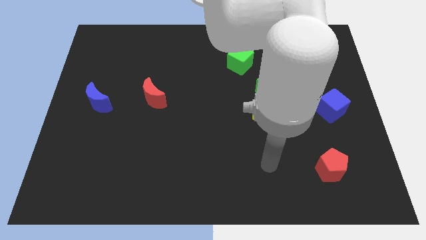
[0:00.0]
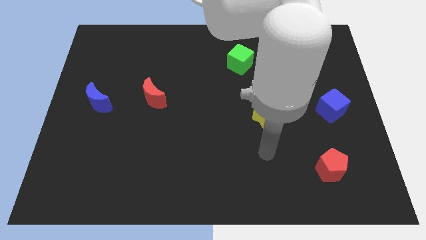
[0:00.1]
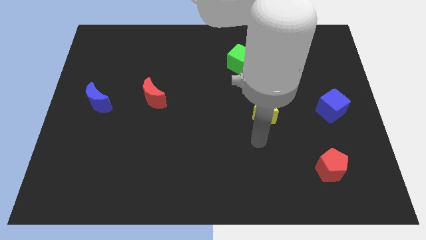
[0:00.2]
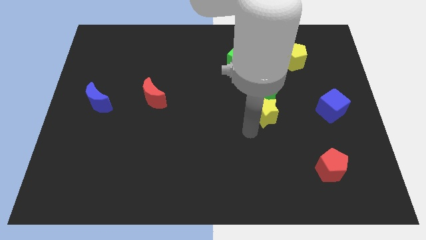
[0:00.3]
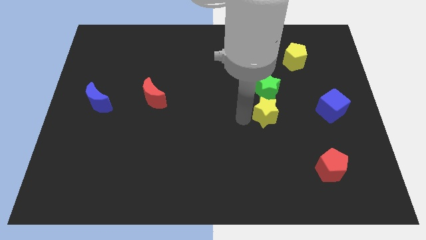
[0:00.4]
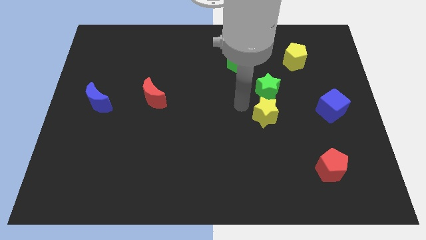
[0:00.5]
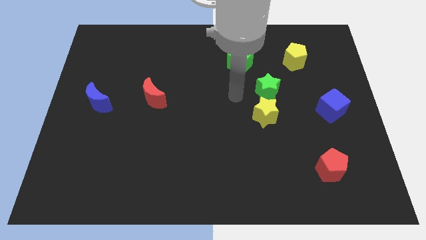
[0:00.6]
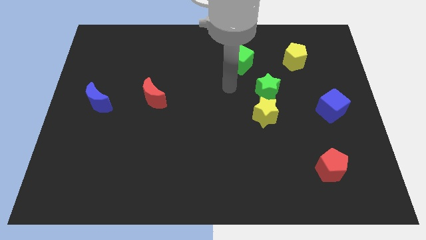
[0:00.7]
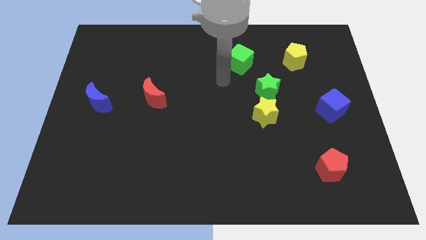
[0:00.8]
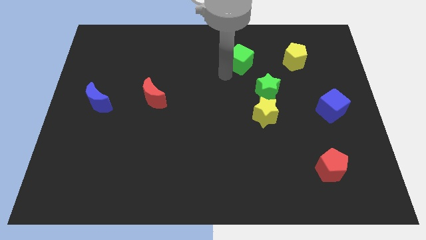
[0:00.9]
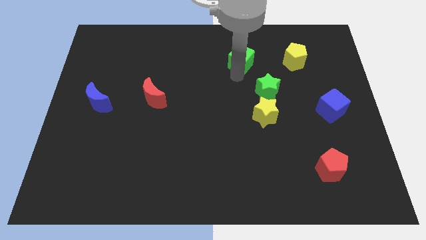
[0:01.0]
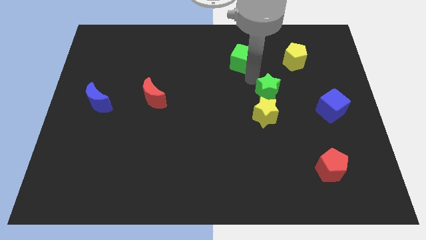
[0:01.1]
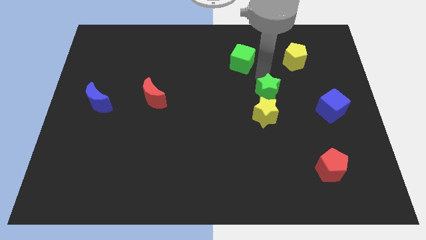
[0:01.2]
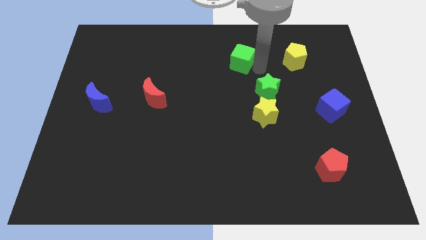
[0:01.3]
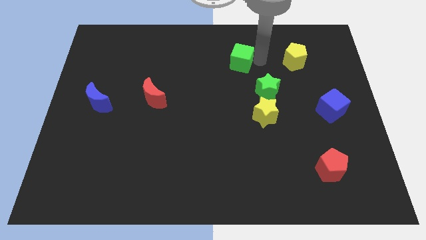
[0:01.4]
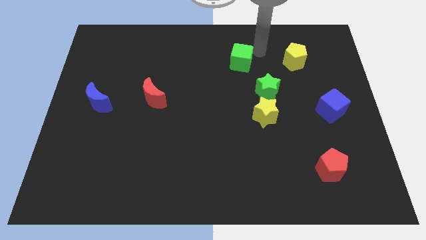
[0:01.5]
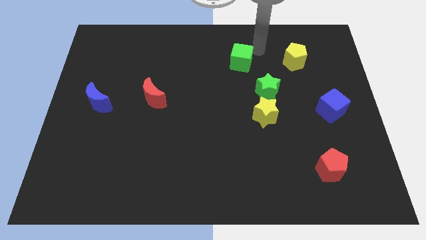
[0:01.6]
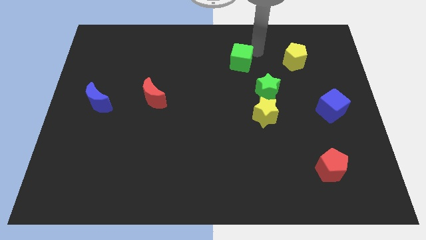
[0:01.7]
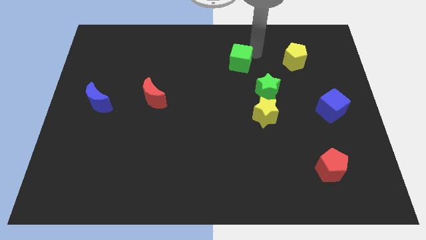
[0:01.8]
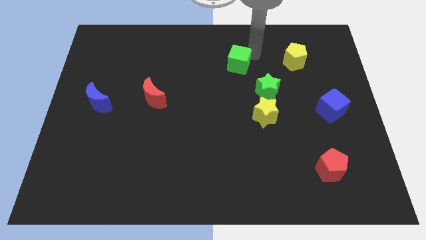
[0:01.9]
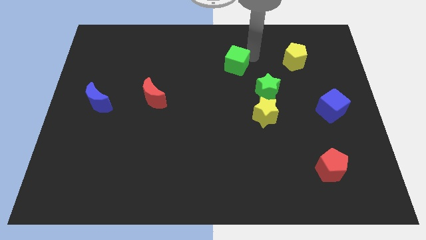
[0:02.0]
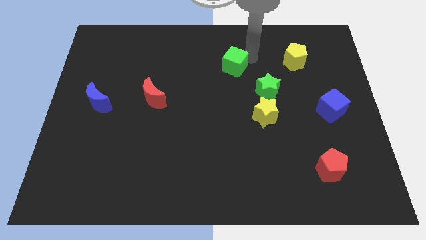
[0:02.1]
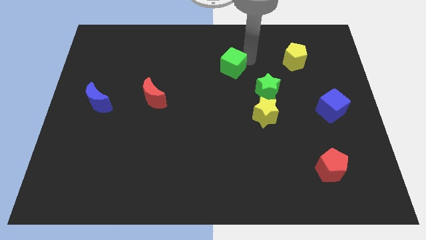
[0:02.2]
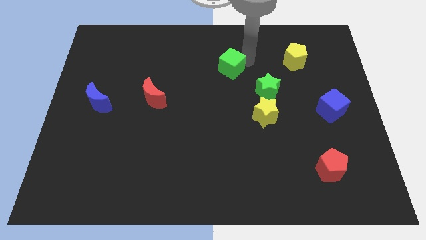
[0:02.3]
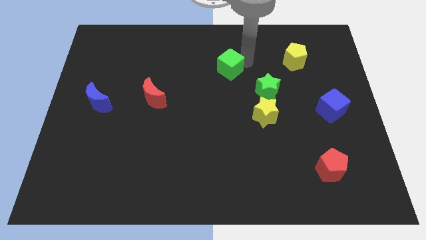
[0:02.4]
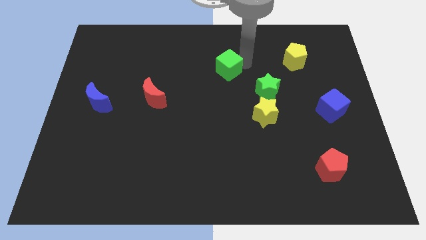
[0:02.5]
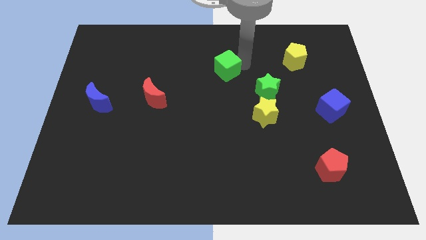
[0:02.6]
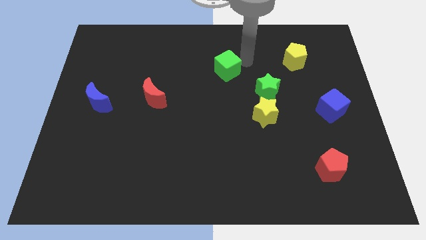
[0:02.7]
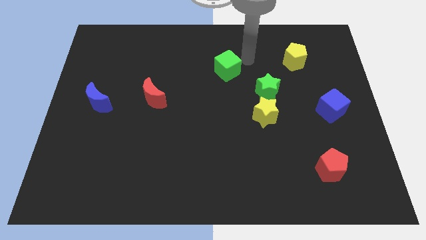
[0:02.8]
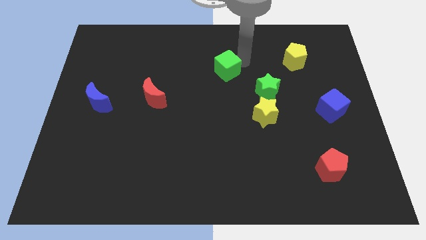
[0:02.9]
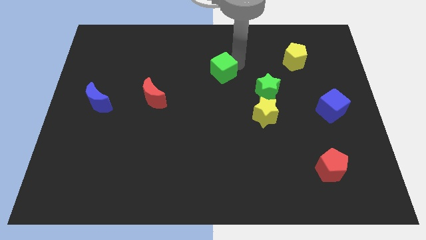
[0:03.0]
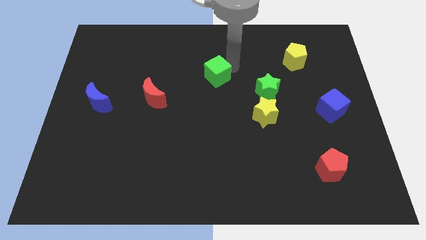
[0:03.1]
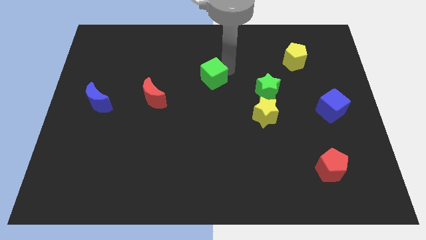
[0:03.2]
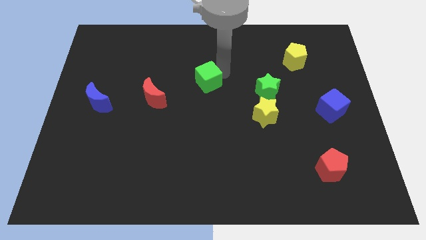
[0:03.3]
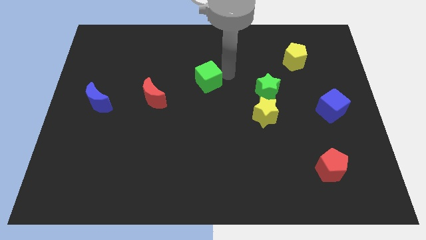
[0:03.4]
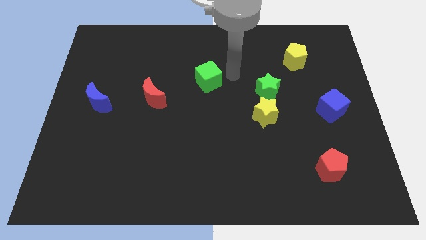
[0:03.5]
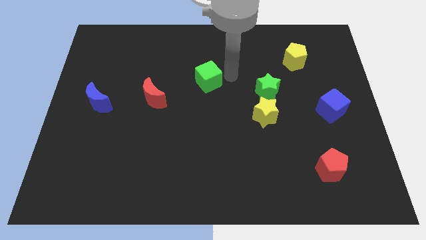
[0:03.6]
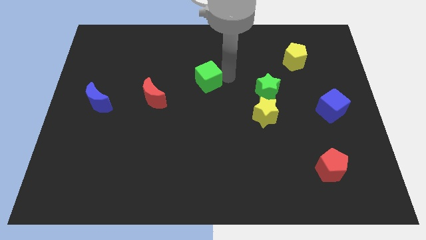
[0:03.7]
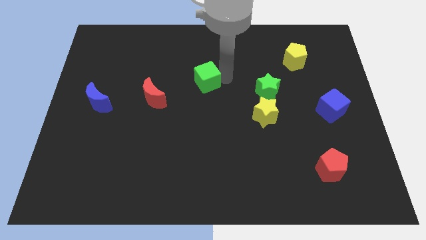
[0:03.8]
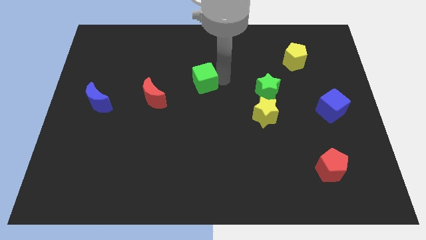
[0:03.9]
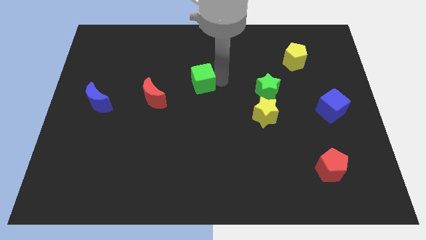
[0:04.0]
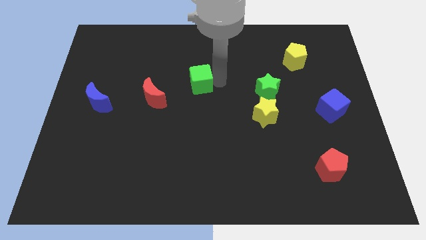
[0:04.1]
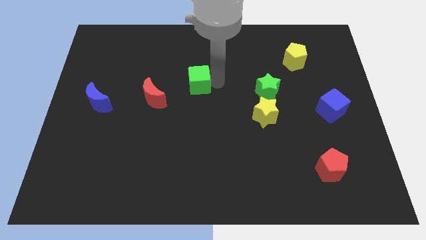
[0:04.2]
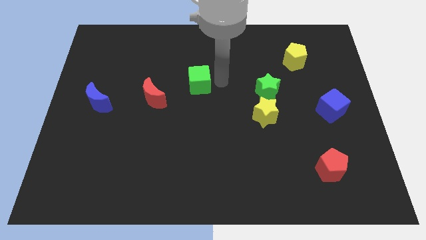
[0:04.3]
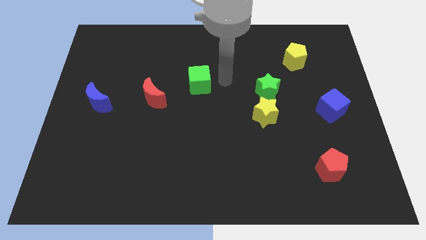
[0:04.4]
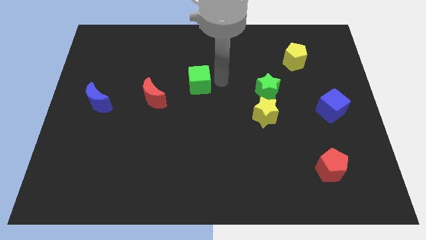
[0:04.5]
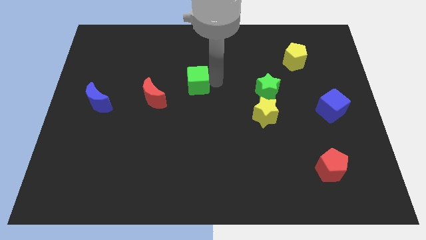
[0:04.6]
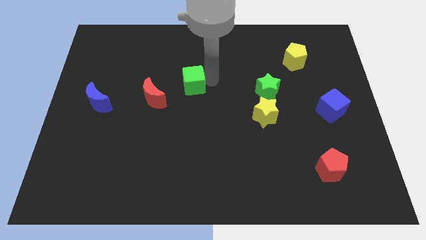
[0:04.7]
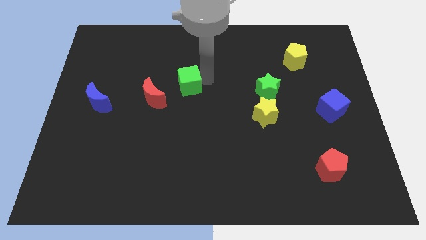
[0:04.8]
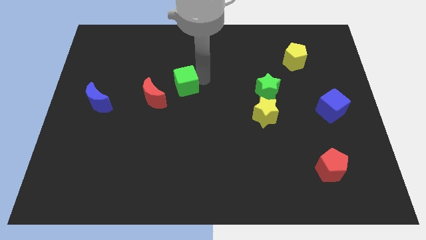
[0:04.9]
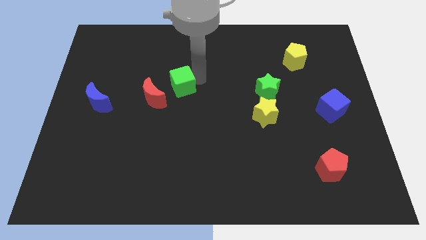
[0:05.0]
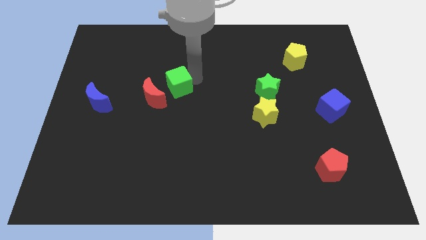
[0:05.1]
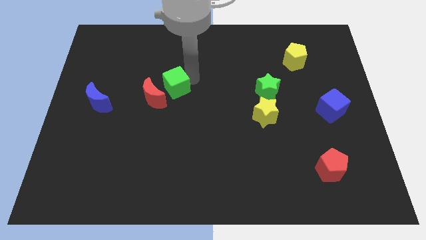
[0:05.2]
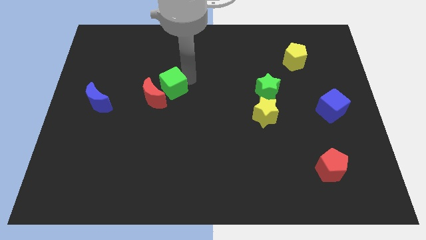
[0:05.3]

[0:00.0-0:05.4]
move the green cube close to the red moon

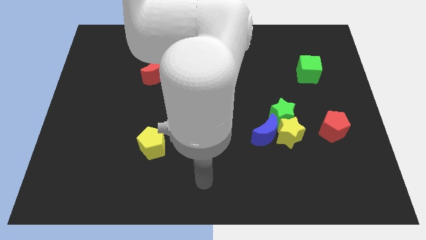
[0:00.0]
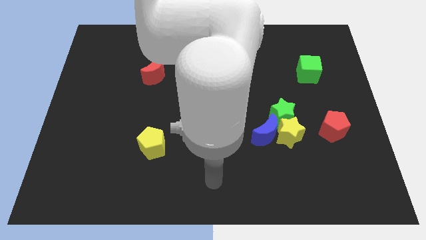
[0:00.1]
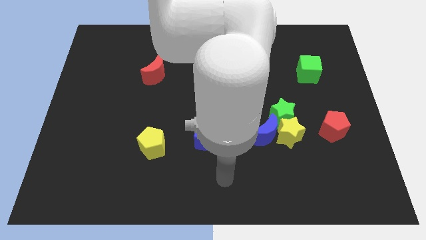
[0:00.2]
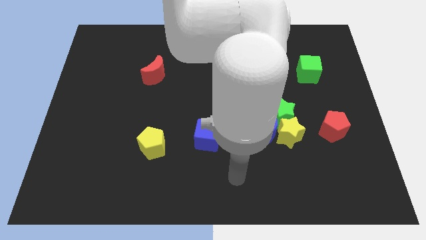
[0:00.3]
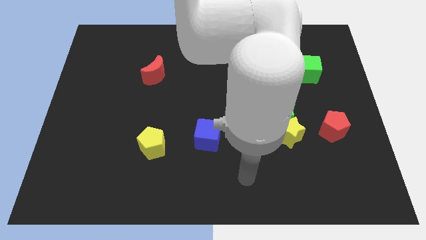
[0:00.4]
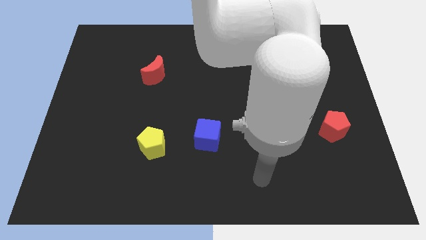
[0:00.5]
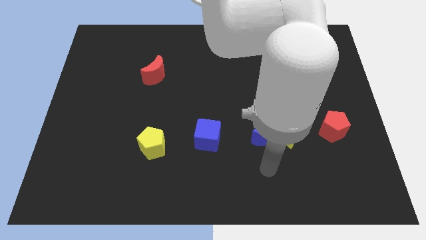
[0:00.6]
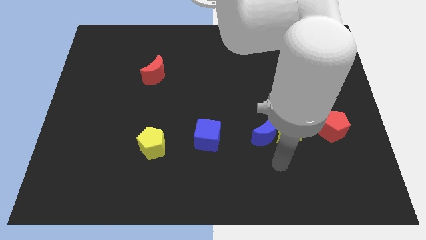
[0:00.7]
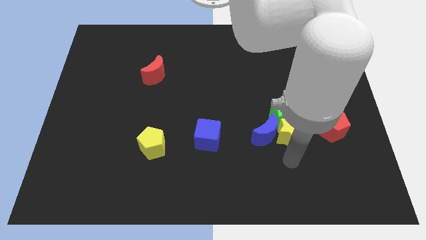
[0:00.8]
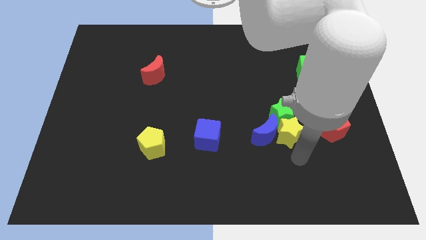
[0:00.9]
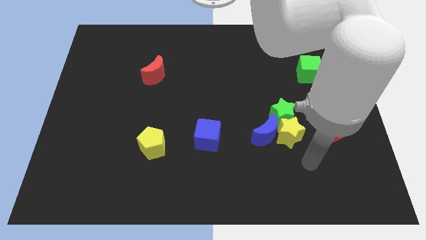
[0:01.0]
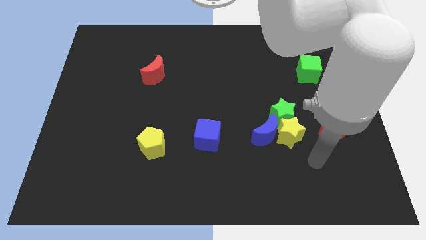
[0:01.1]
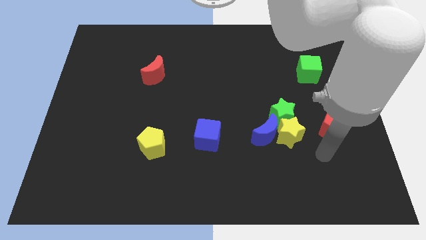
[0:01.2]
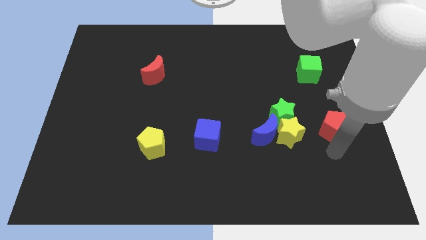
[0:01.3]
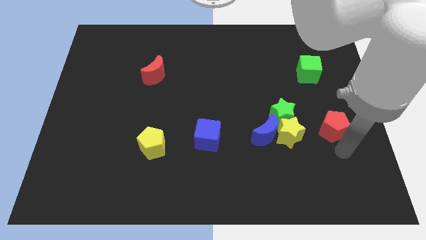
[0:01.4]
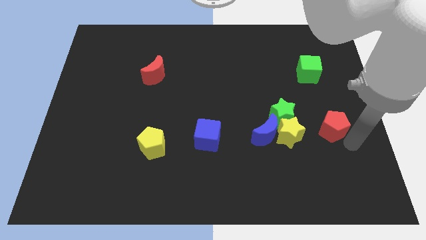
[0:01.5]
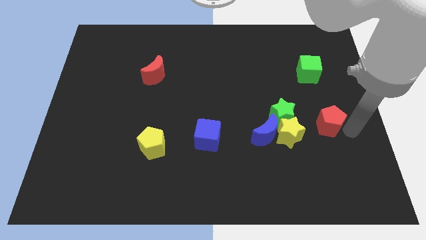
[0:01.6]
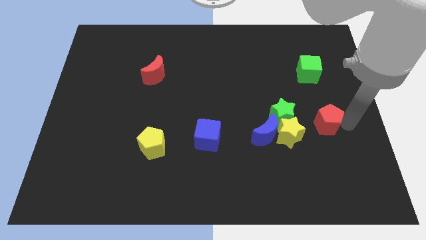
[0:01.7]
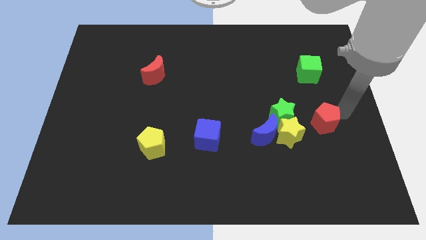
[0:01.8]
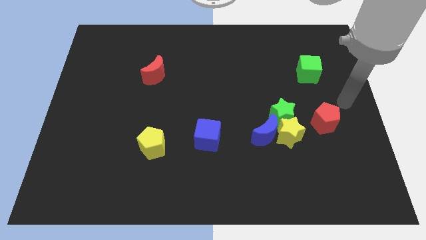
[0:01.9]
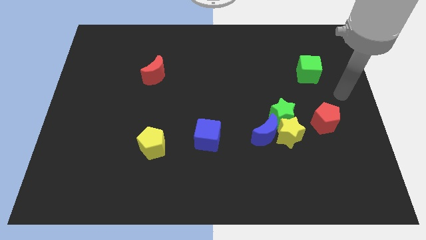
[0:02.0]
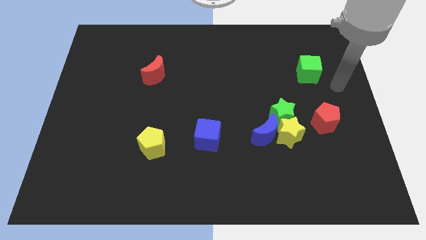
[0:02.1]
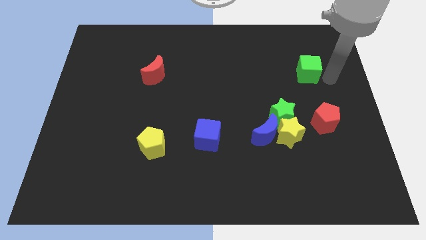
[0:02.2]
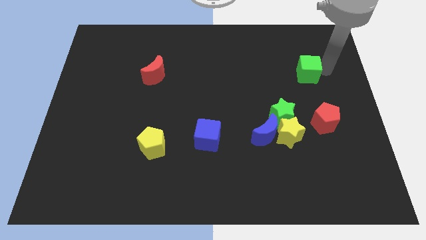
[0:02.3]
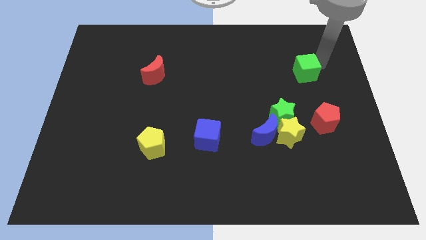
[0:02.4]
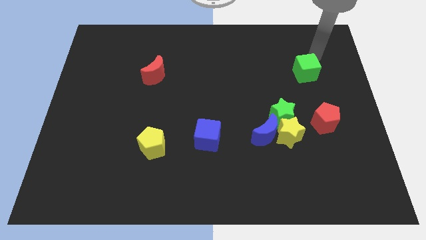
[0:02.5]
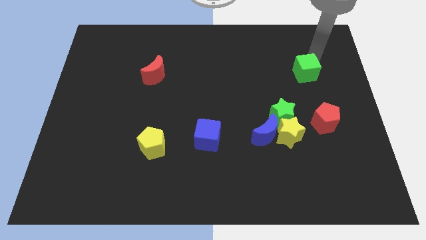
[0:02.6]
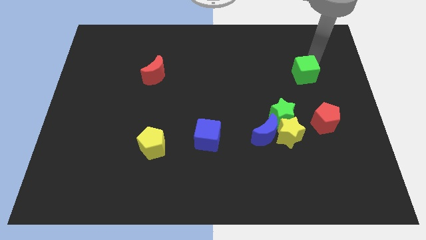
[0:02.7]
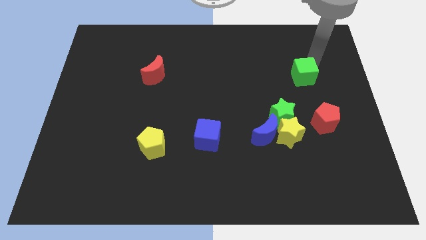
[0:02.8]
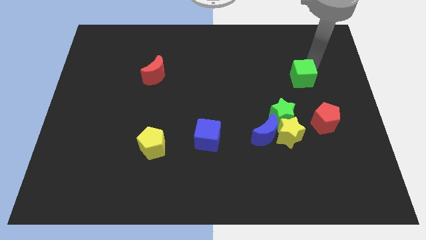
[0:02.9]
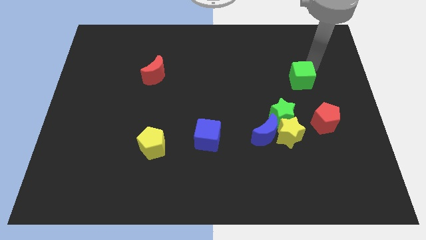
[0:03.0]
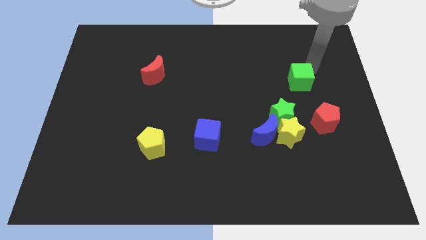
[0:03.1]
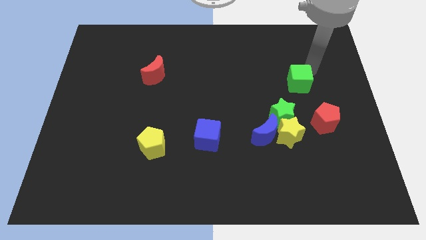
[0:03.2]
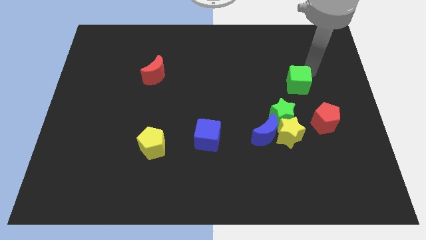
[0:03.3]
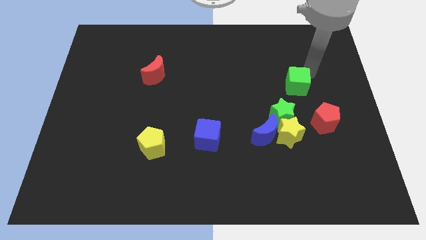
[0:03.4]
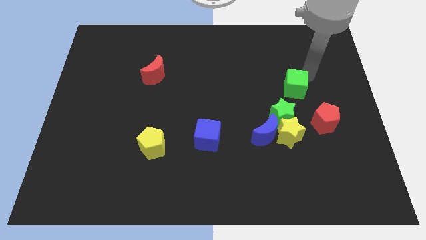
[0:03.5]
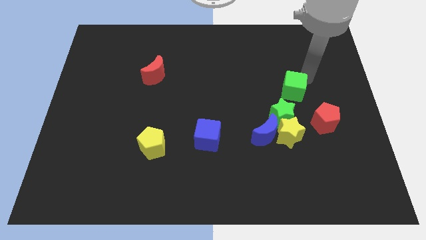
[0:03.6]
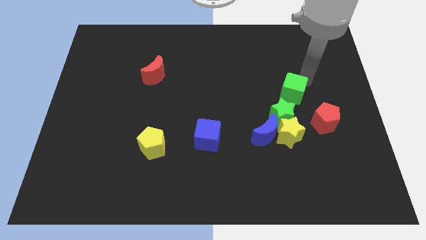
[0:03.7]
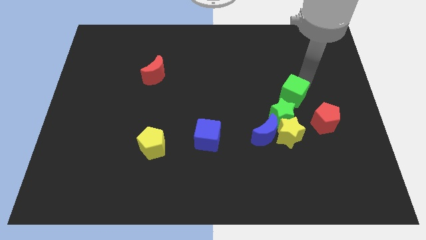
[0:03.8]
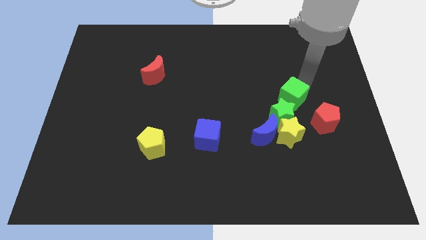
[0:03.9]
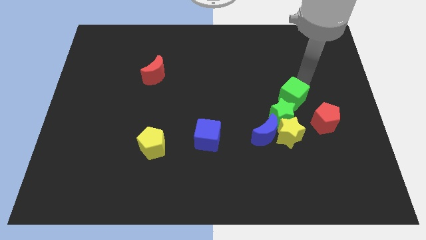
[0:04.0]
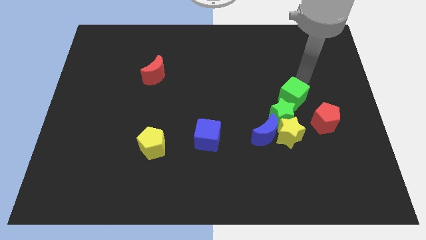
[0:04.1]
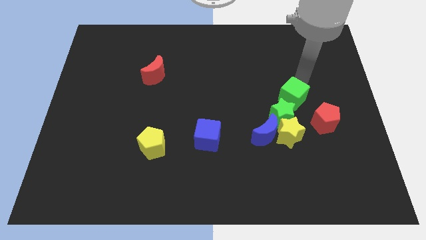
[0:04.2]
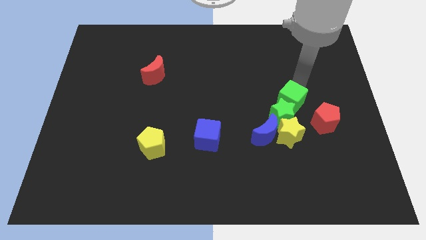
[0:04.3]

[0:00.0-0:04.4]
push the green cube next to the green star
